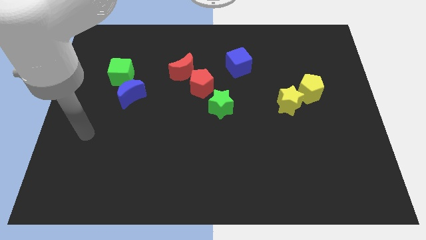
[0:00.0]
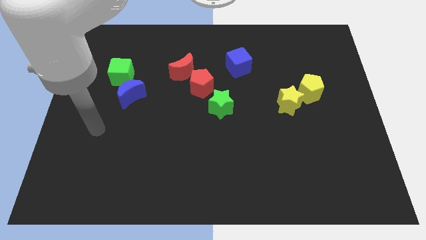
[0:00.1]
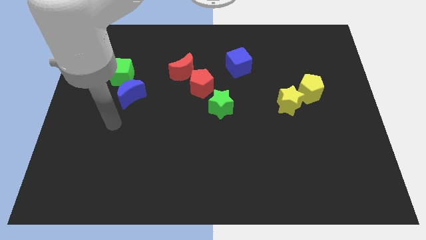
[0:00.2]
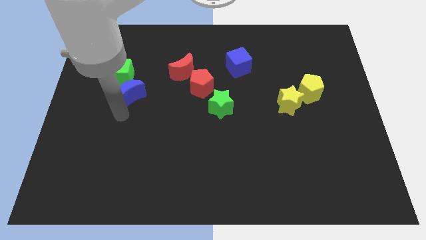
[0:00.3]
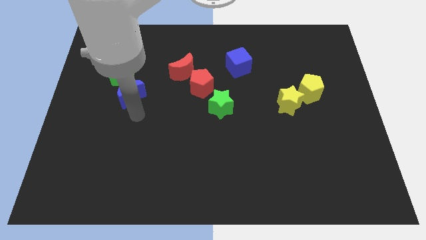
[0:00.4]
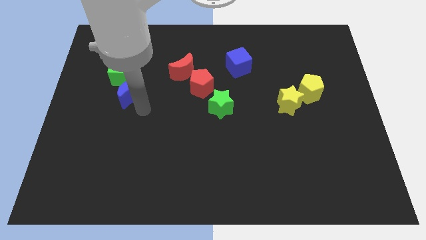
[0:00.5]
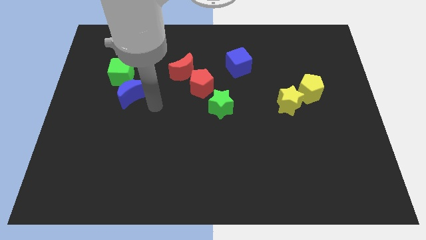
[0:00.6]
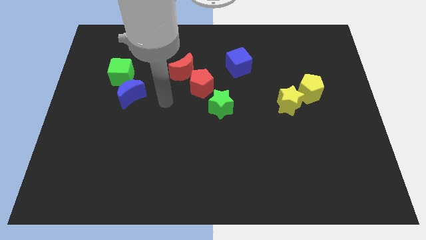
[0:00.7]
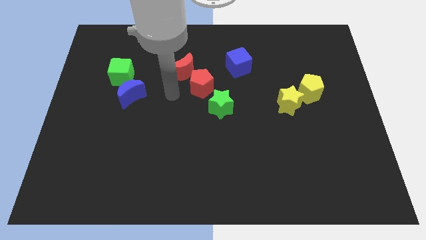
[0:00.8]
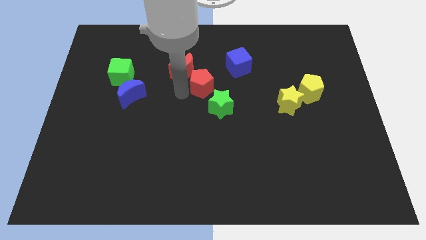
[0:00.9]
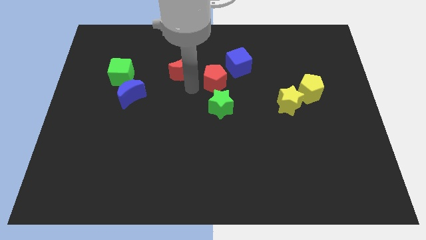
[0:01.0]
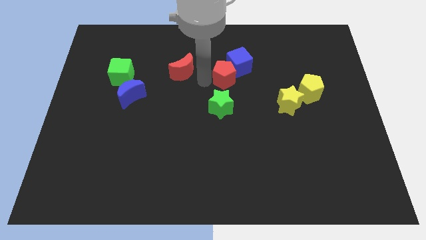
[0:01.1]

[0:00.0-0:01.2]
pull the red moon apart from the red pentagon

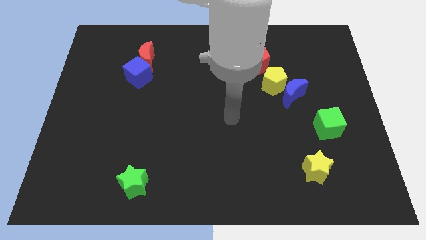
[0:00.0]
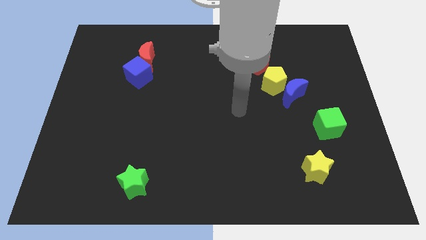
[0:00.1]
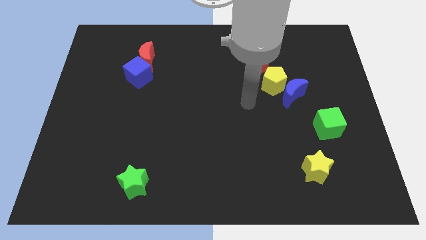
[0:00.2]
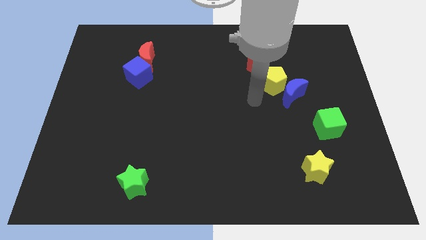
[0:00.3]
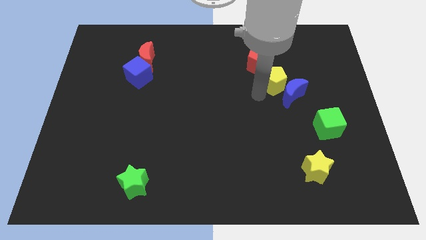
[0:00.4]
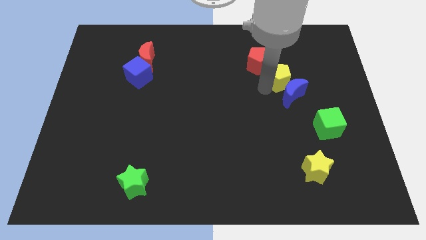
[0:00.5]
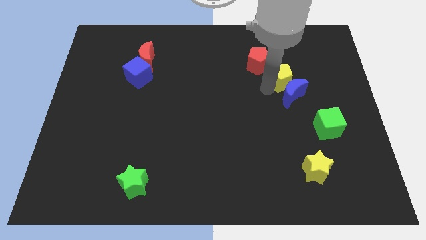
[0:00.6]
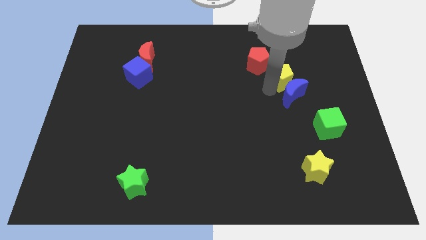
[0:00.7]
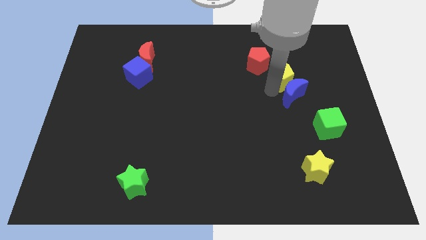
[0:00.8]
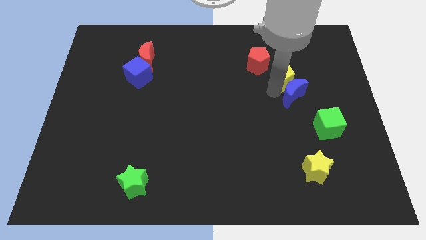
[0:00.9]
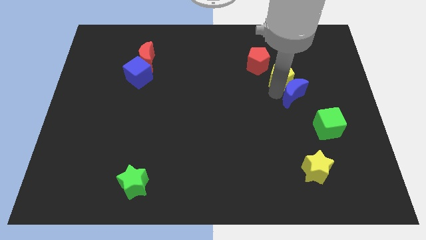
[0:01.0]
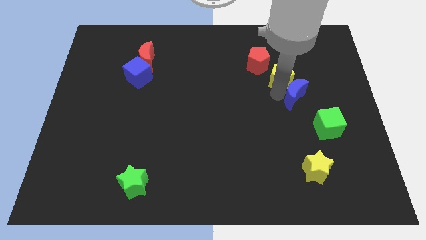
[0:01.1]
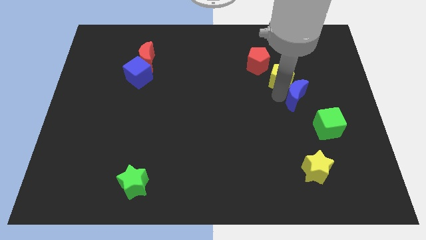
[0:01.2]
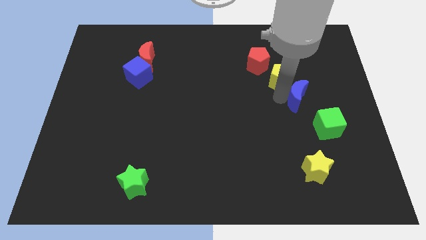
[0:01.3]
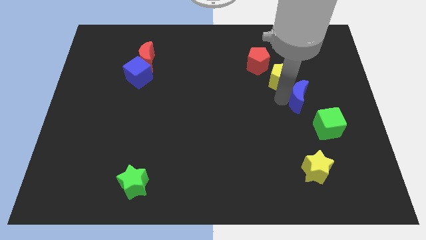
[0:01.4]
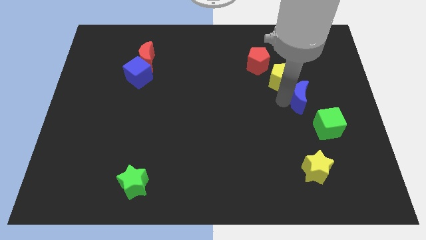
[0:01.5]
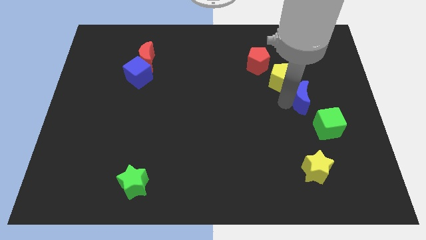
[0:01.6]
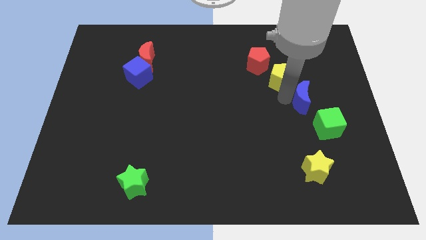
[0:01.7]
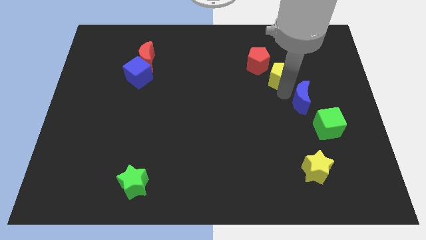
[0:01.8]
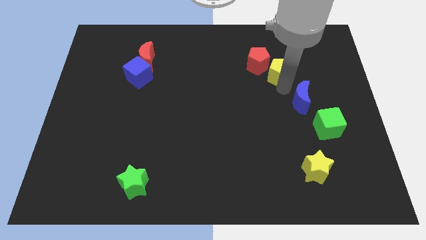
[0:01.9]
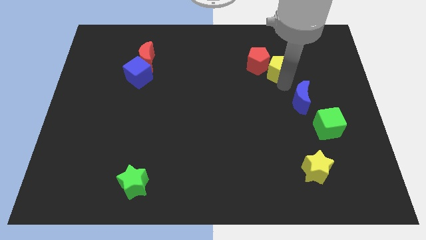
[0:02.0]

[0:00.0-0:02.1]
move the blue moon away from the yellow pentagon

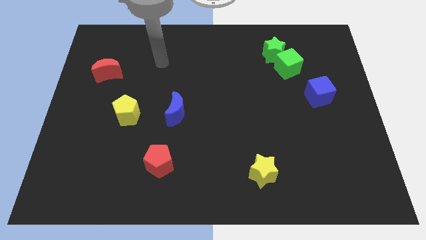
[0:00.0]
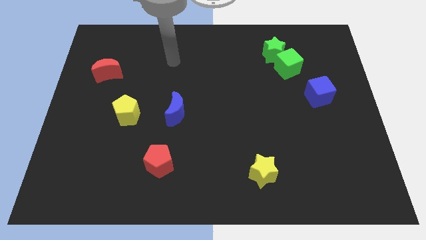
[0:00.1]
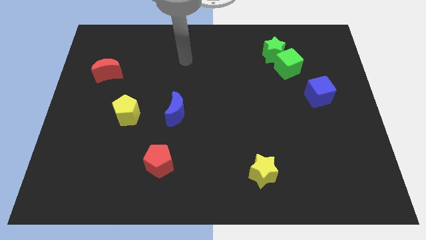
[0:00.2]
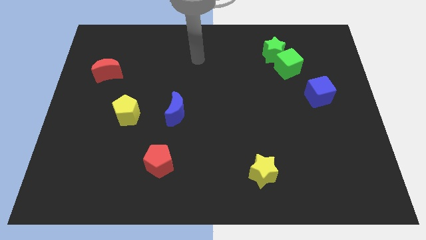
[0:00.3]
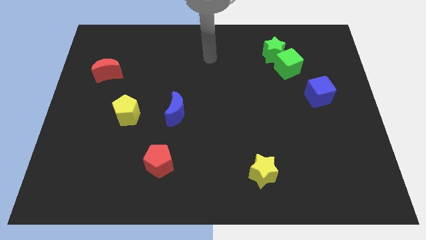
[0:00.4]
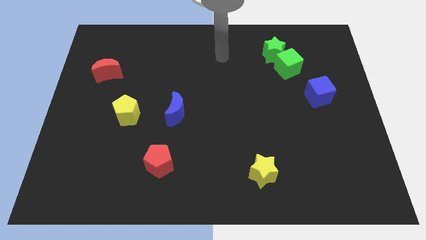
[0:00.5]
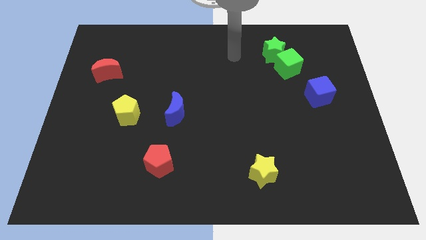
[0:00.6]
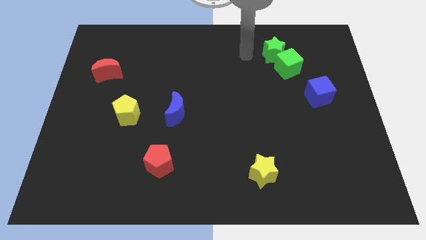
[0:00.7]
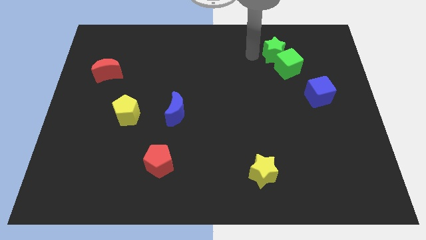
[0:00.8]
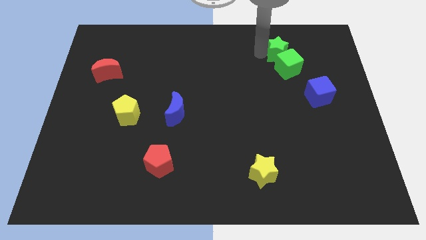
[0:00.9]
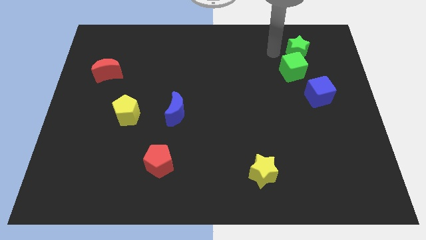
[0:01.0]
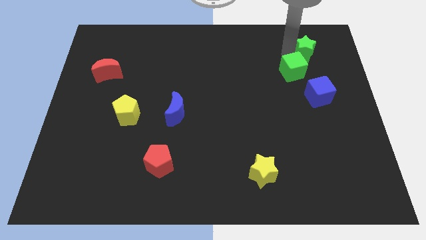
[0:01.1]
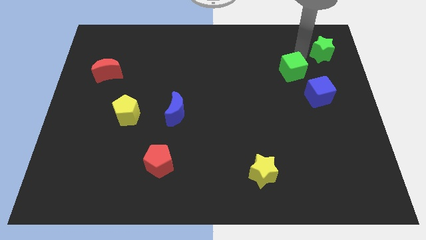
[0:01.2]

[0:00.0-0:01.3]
move the green cube away from the green star

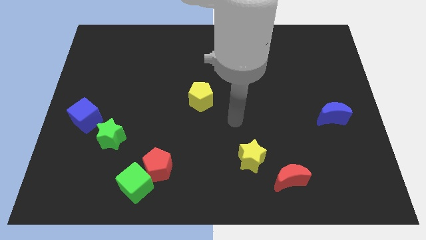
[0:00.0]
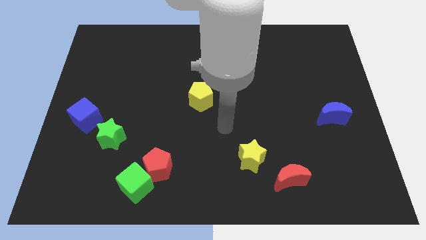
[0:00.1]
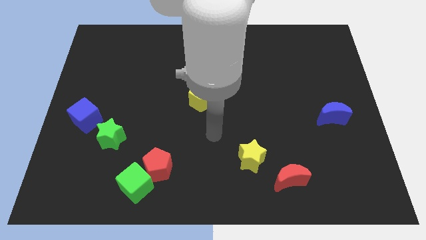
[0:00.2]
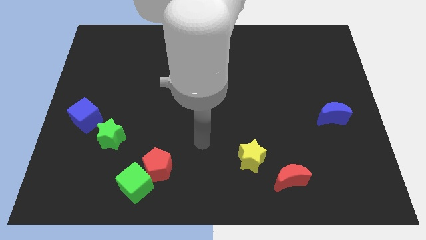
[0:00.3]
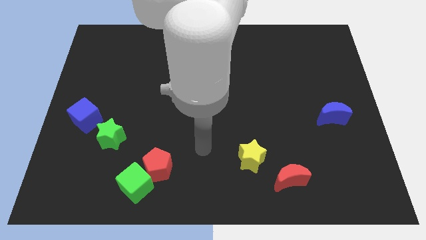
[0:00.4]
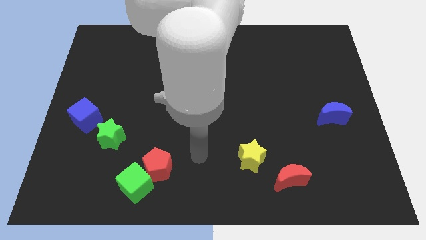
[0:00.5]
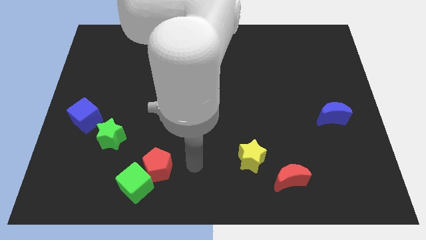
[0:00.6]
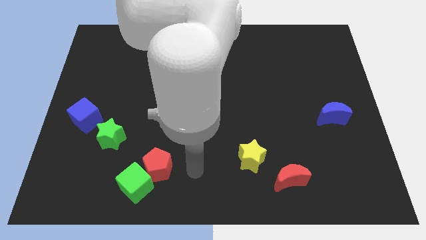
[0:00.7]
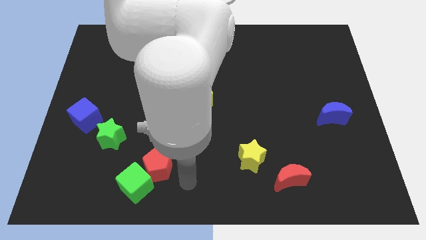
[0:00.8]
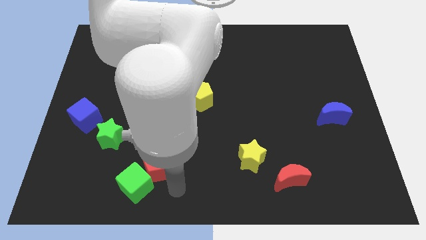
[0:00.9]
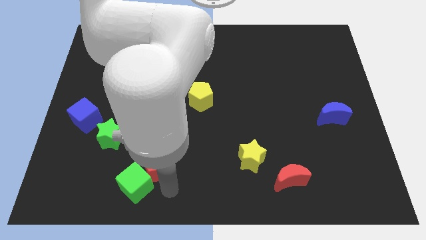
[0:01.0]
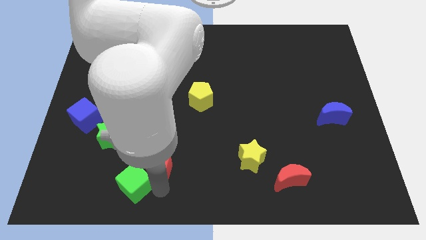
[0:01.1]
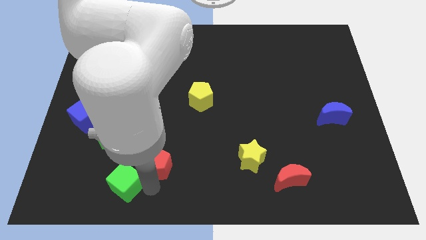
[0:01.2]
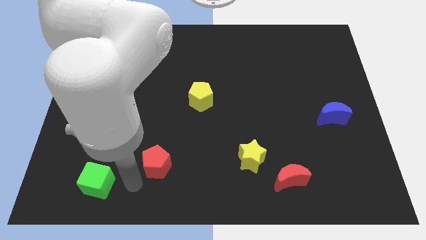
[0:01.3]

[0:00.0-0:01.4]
pull the red pentagon apart from the green cube

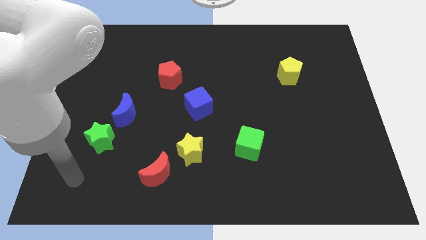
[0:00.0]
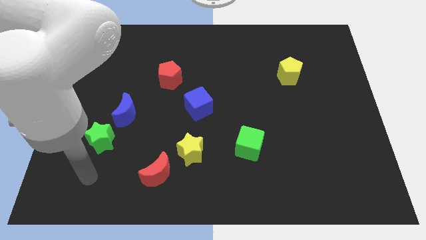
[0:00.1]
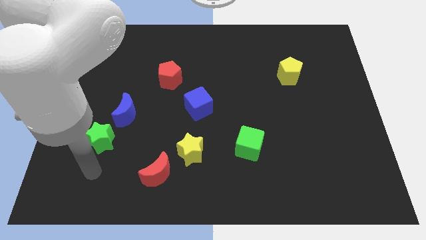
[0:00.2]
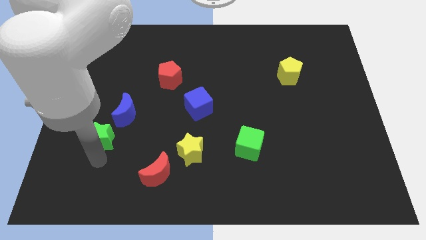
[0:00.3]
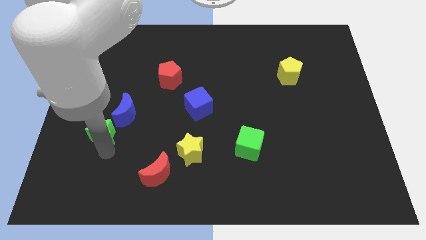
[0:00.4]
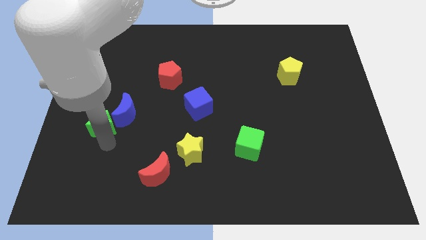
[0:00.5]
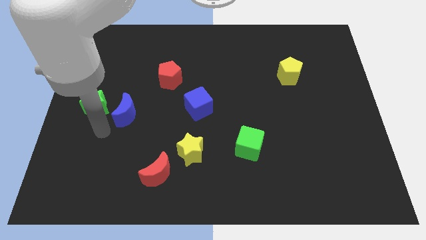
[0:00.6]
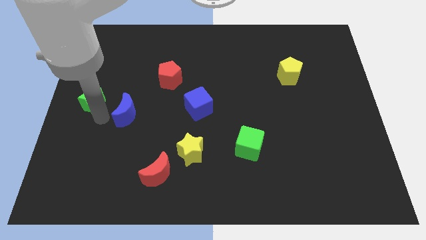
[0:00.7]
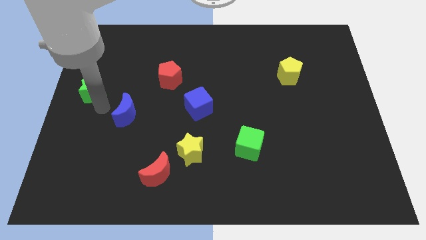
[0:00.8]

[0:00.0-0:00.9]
pull the blue moon apart from the green star

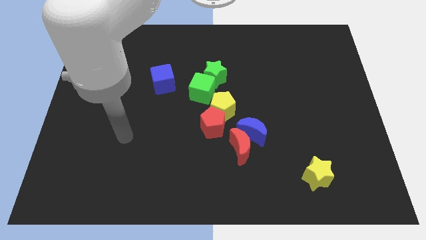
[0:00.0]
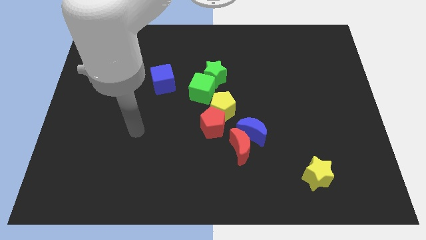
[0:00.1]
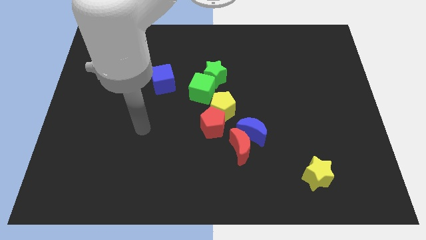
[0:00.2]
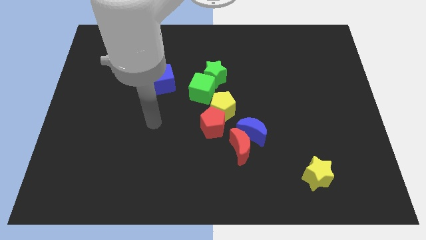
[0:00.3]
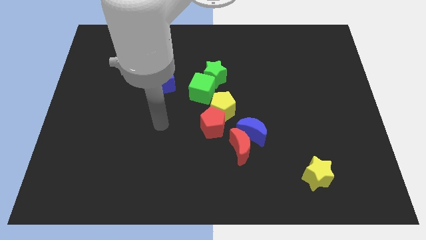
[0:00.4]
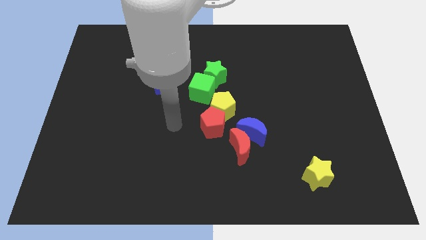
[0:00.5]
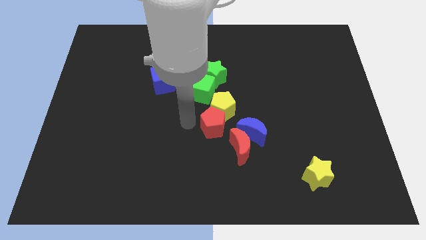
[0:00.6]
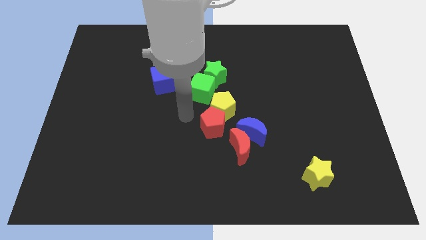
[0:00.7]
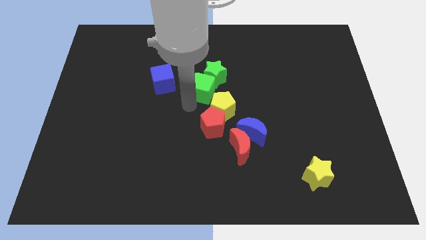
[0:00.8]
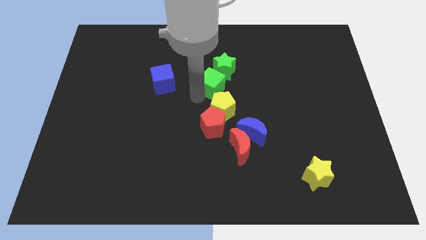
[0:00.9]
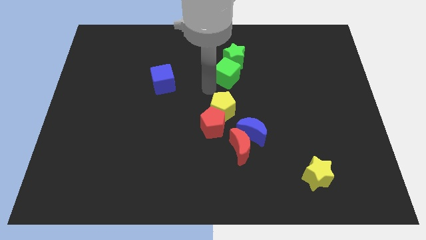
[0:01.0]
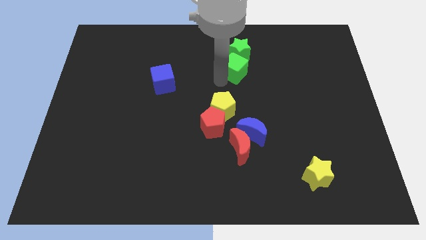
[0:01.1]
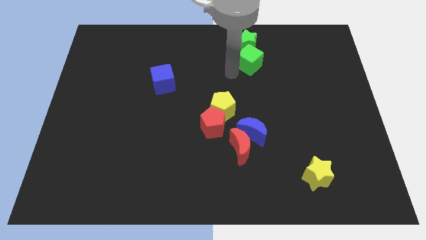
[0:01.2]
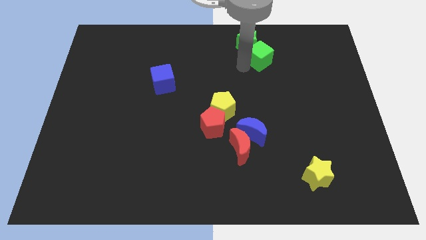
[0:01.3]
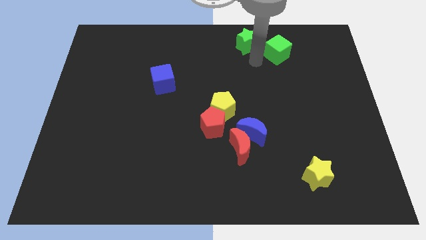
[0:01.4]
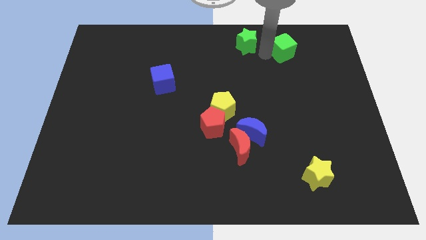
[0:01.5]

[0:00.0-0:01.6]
separate the green star from the green cube

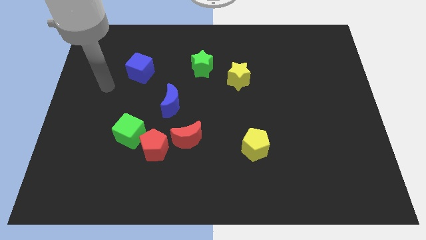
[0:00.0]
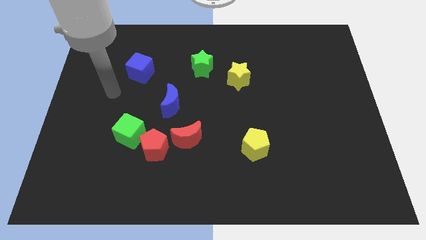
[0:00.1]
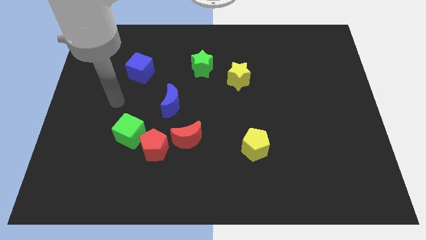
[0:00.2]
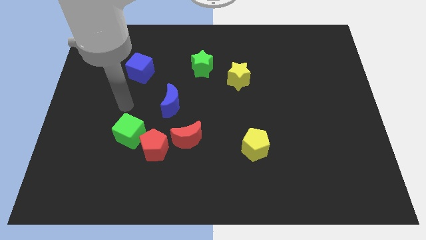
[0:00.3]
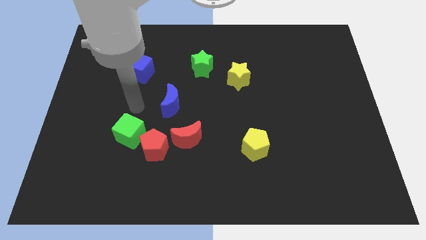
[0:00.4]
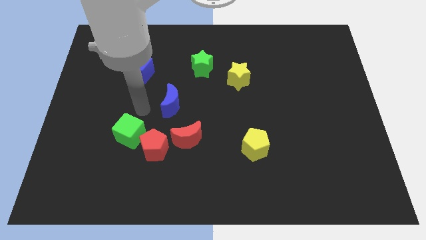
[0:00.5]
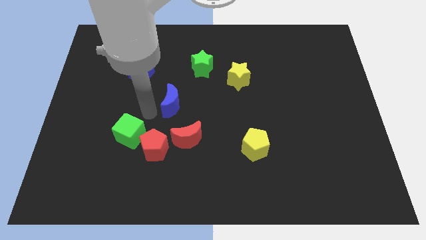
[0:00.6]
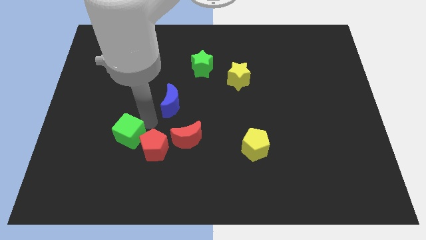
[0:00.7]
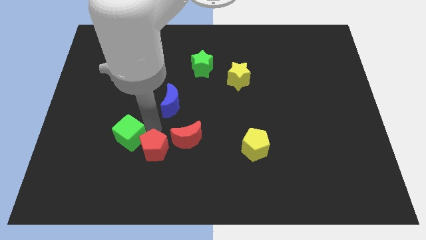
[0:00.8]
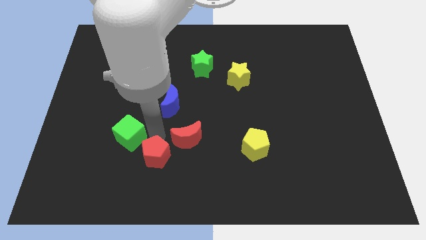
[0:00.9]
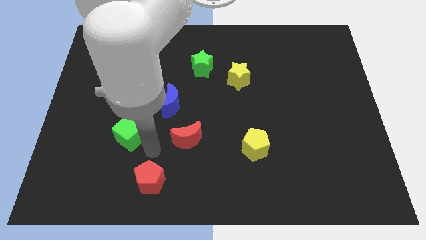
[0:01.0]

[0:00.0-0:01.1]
separate the green cube from the red pentagon
